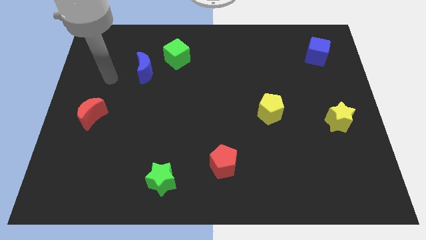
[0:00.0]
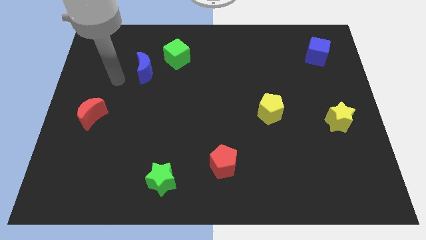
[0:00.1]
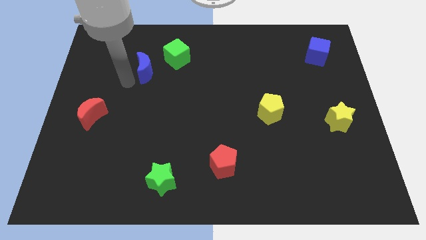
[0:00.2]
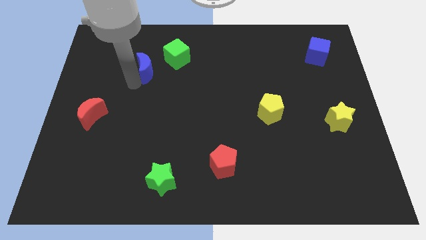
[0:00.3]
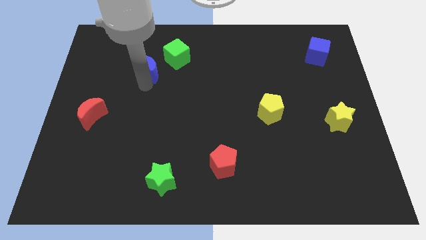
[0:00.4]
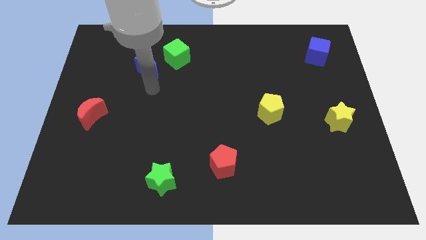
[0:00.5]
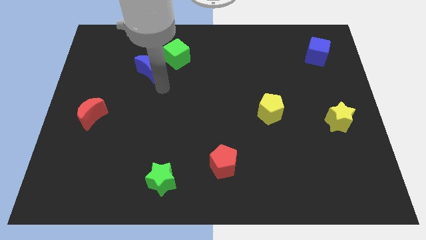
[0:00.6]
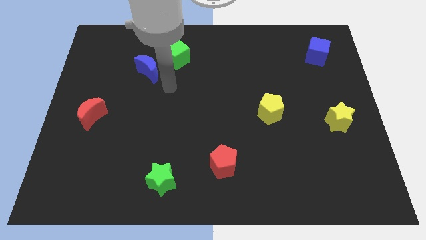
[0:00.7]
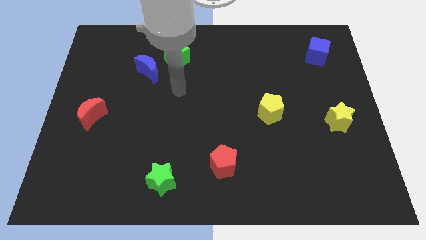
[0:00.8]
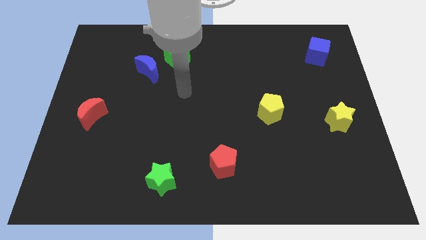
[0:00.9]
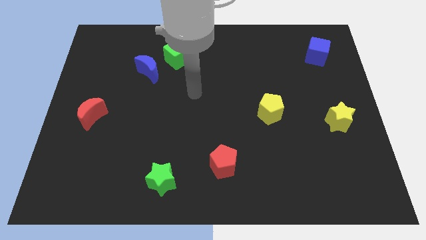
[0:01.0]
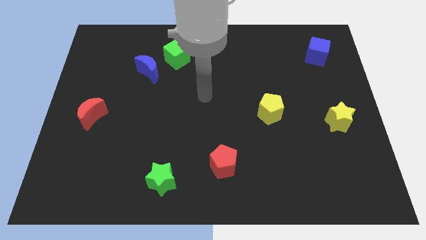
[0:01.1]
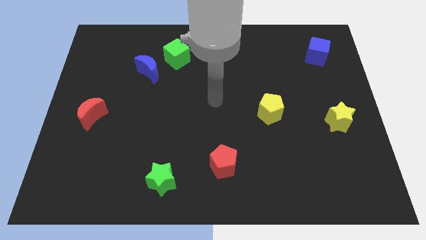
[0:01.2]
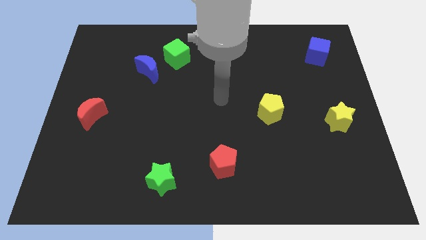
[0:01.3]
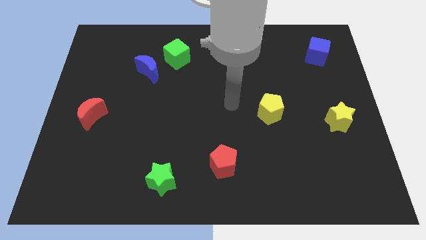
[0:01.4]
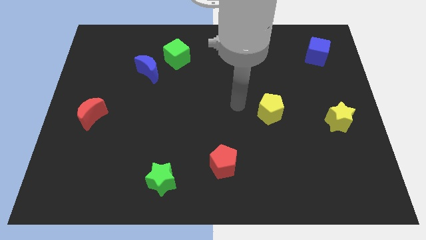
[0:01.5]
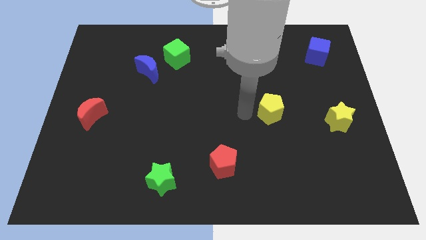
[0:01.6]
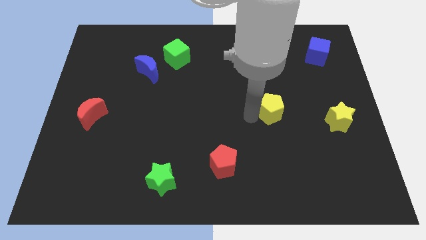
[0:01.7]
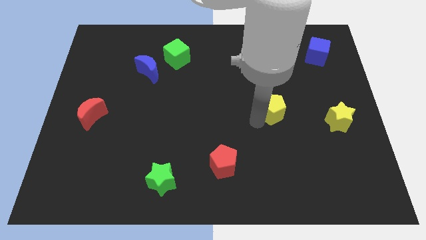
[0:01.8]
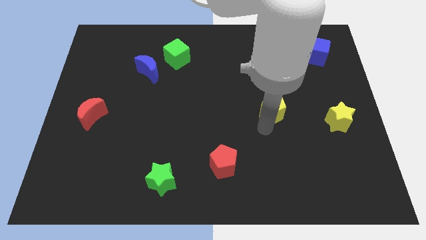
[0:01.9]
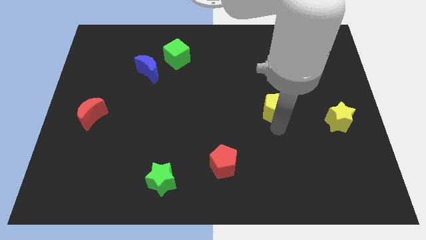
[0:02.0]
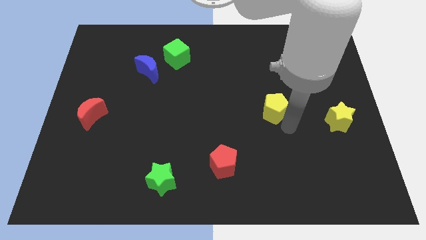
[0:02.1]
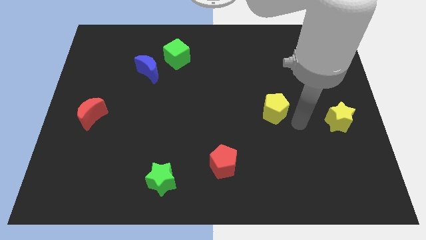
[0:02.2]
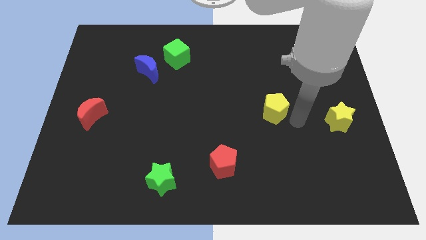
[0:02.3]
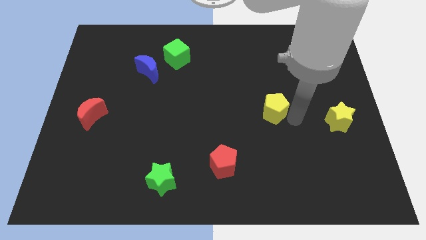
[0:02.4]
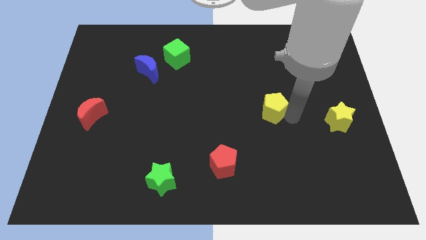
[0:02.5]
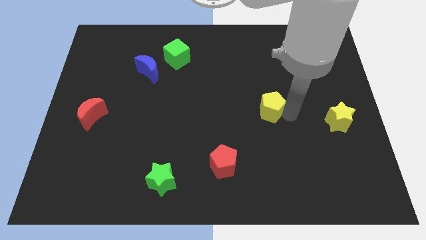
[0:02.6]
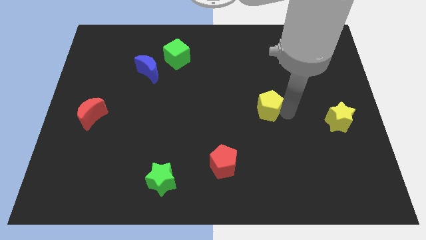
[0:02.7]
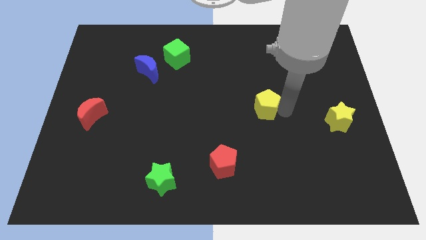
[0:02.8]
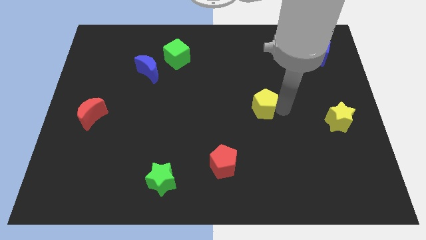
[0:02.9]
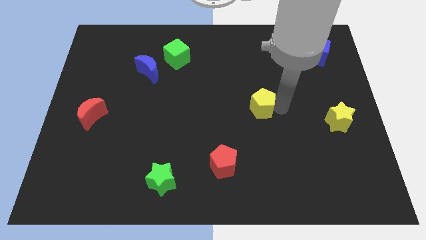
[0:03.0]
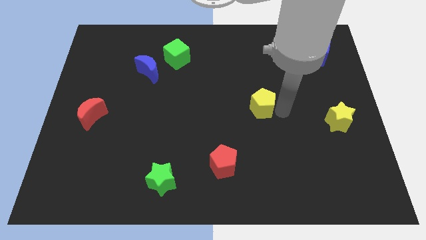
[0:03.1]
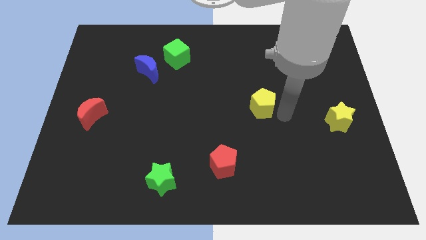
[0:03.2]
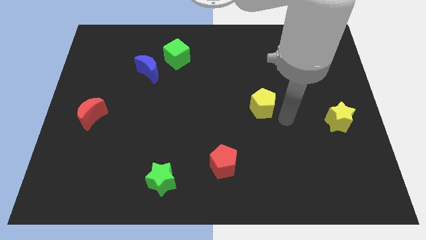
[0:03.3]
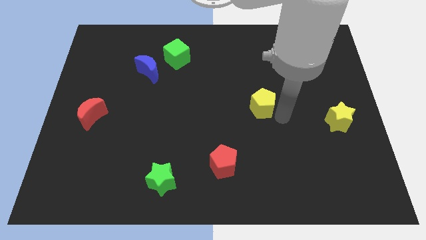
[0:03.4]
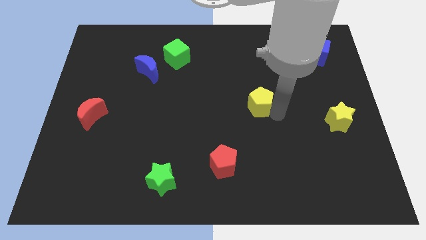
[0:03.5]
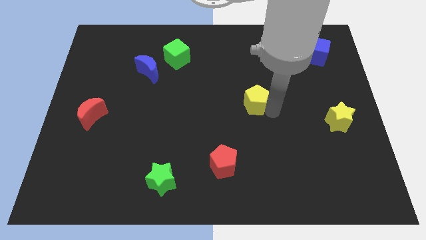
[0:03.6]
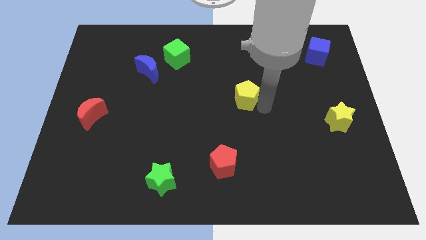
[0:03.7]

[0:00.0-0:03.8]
slightly slide the yellow pentagon upwards and left

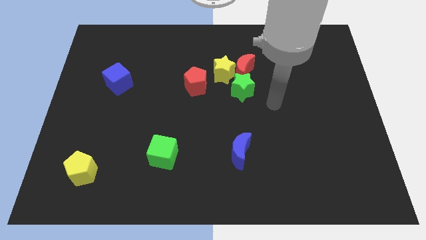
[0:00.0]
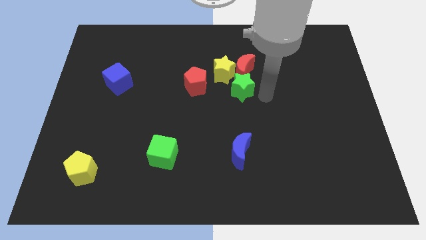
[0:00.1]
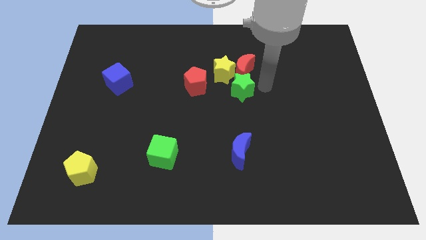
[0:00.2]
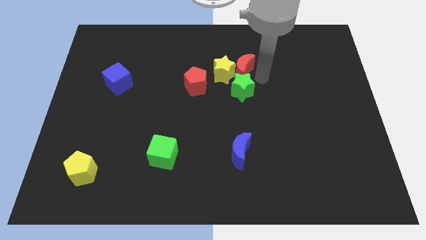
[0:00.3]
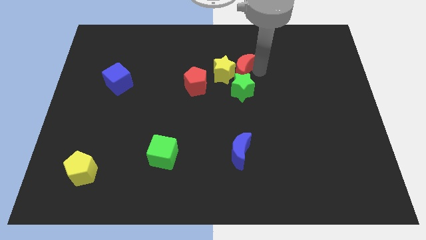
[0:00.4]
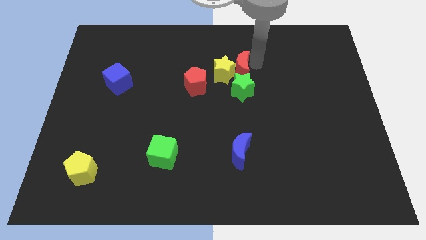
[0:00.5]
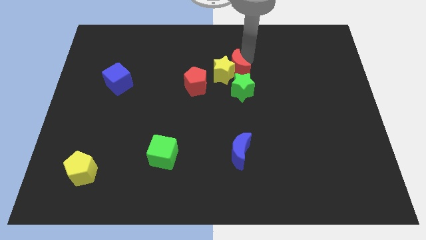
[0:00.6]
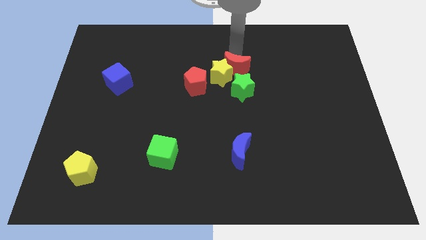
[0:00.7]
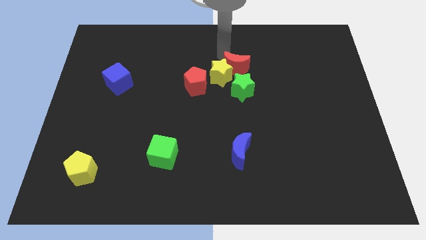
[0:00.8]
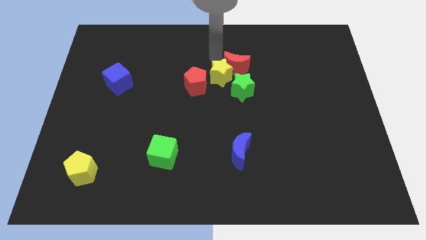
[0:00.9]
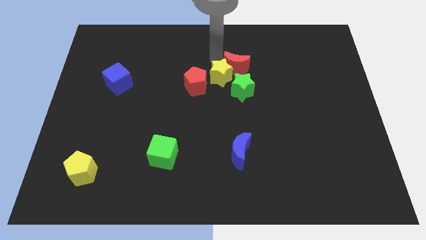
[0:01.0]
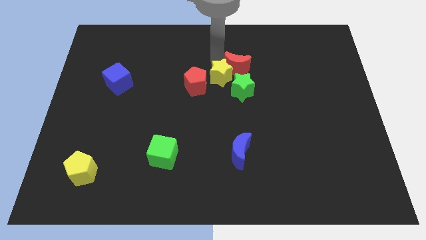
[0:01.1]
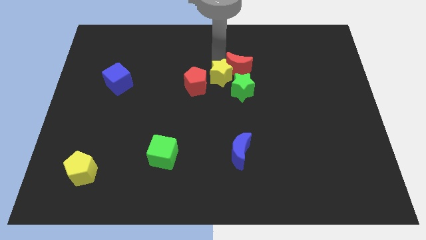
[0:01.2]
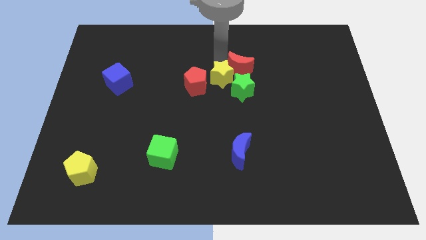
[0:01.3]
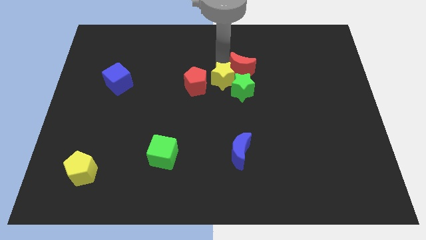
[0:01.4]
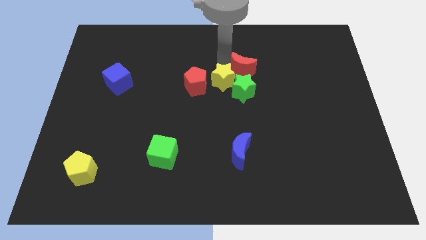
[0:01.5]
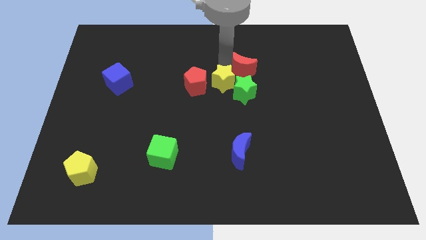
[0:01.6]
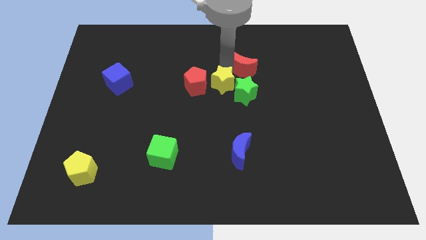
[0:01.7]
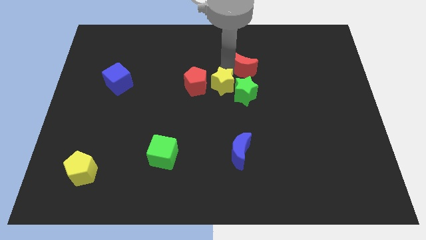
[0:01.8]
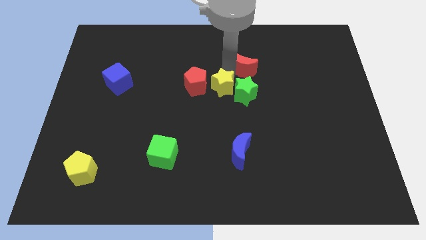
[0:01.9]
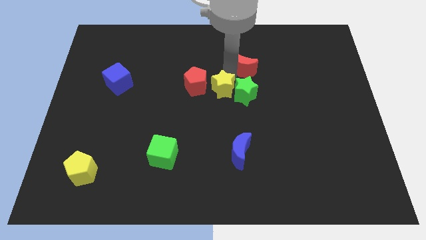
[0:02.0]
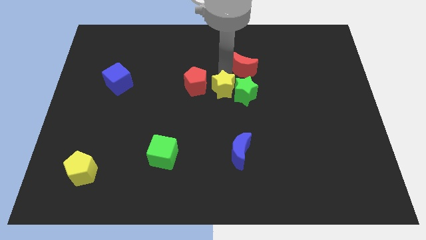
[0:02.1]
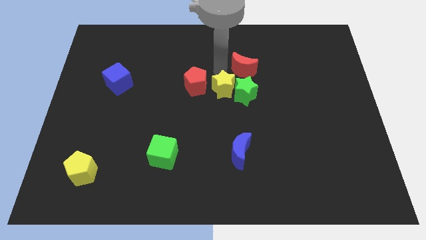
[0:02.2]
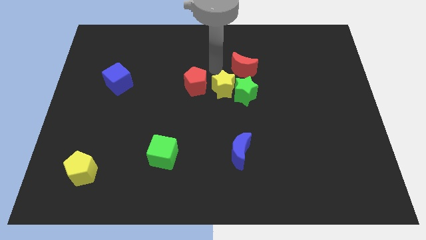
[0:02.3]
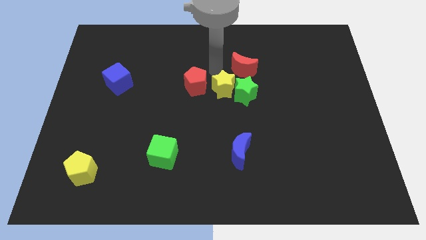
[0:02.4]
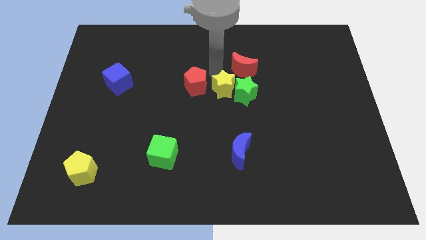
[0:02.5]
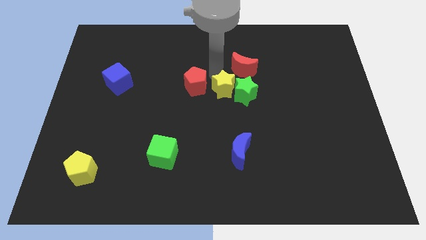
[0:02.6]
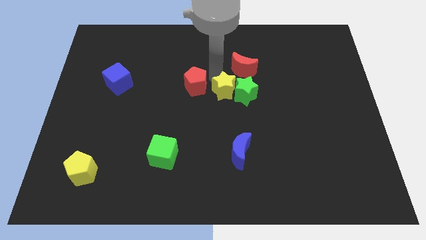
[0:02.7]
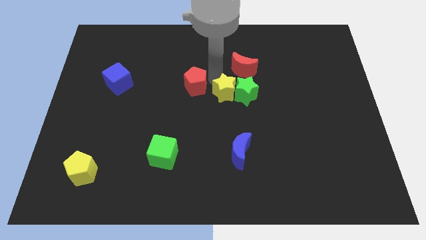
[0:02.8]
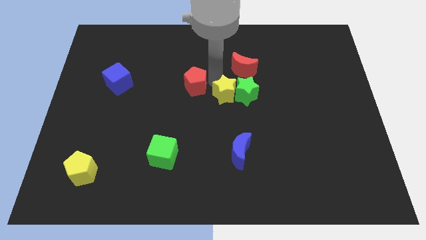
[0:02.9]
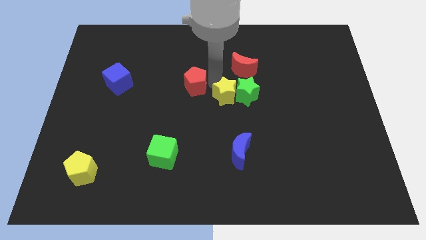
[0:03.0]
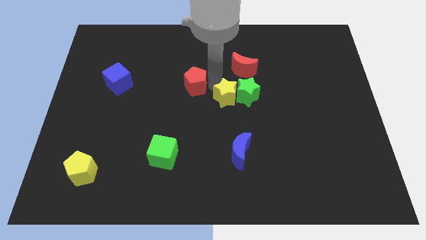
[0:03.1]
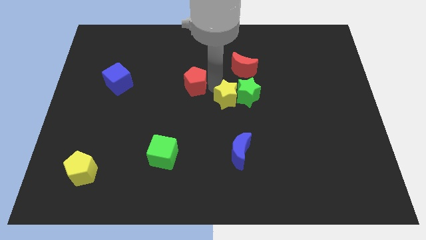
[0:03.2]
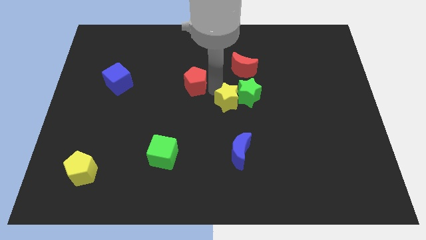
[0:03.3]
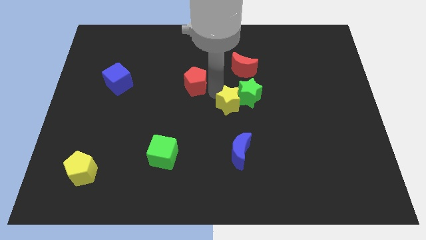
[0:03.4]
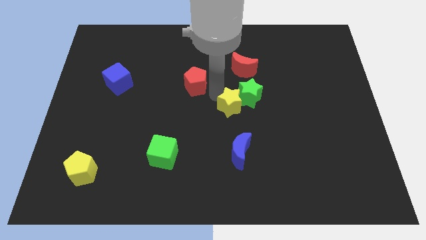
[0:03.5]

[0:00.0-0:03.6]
slide the yellow star down and to the right a little bit

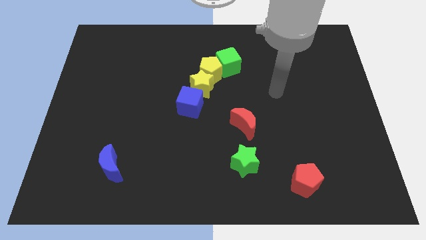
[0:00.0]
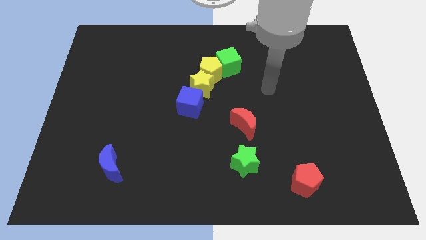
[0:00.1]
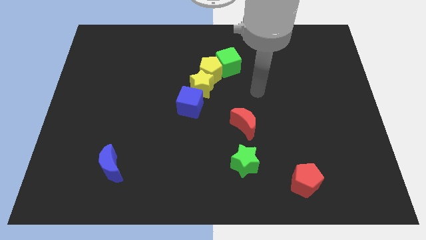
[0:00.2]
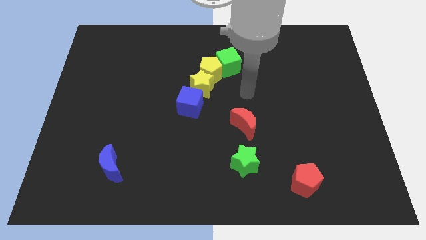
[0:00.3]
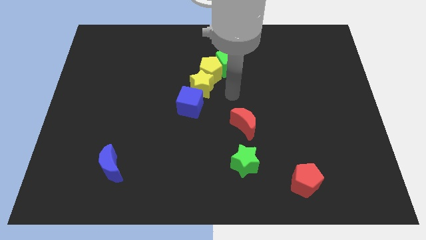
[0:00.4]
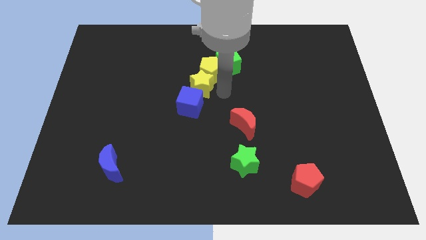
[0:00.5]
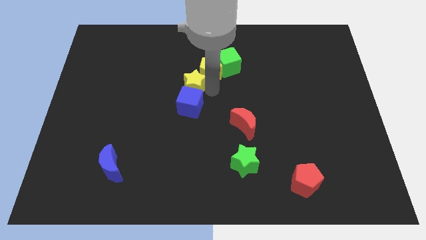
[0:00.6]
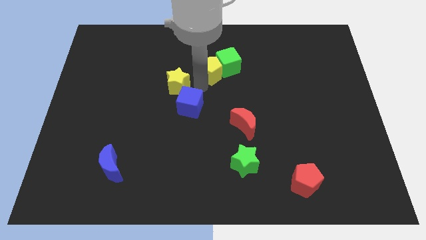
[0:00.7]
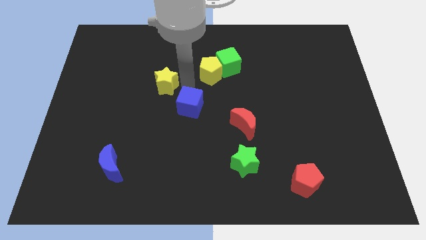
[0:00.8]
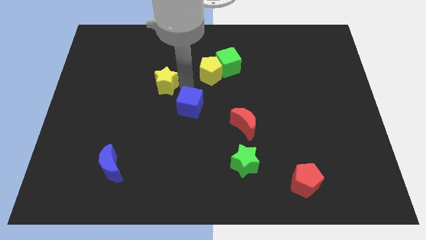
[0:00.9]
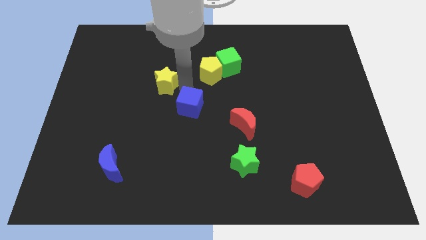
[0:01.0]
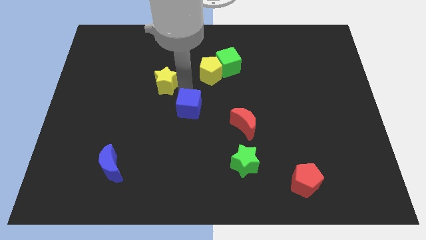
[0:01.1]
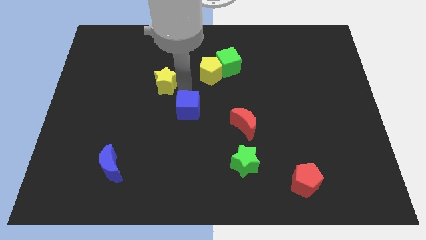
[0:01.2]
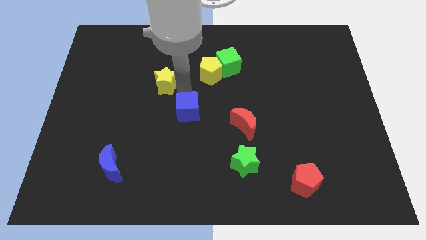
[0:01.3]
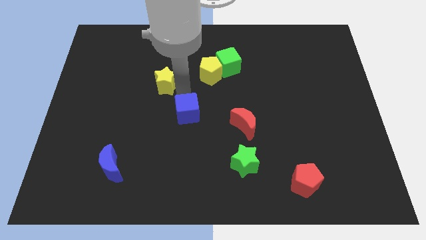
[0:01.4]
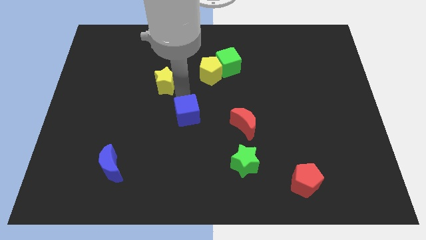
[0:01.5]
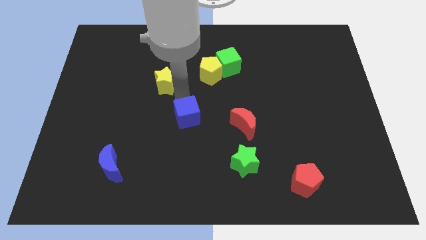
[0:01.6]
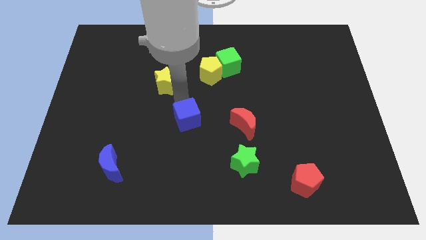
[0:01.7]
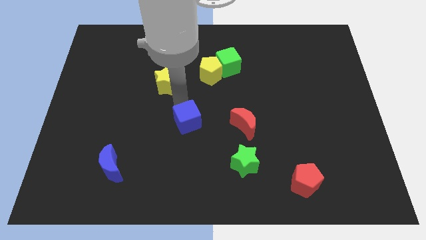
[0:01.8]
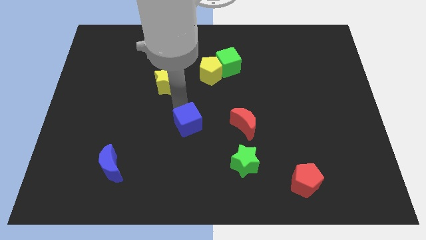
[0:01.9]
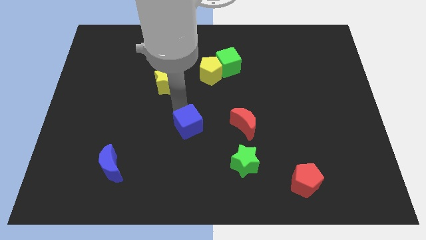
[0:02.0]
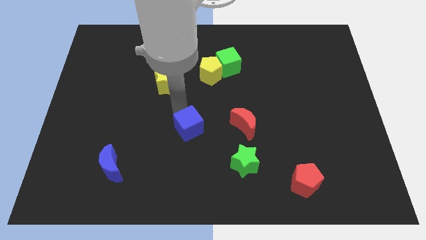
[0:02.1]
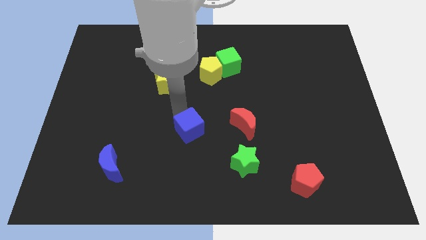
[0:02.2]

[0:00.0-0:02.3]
push the blue cube downwards slightly
